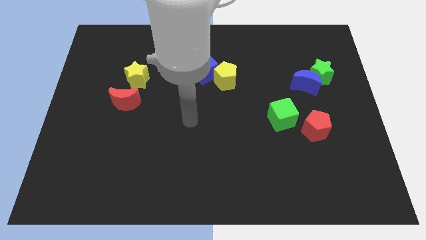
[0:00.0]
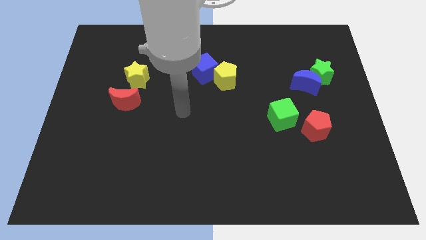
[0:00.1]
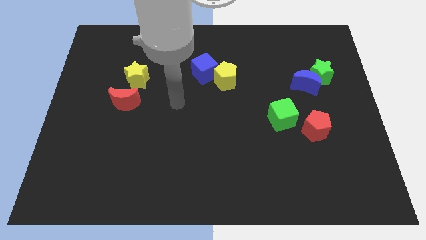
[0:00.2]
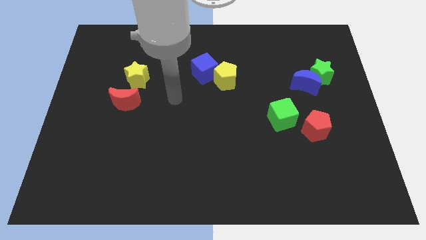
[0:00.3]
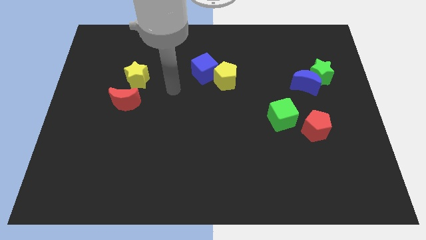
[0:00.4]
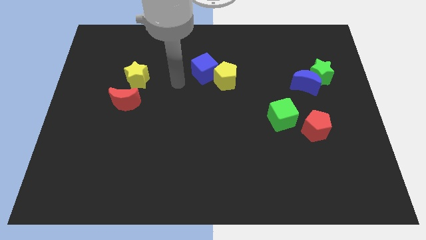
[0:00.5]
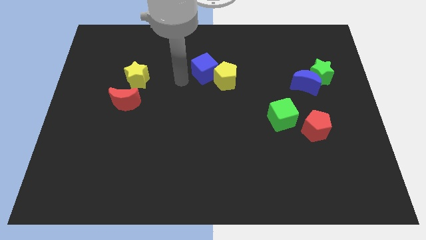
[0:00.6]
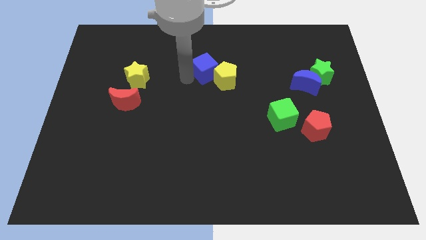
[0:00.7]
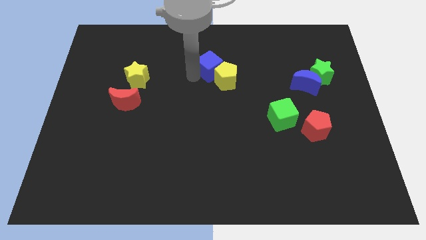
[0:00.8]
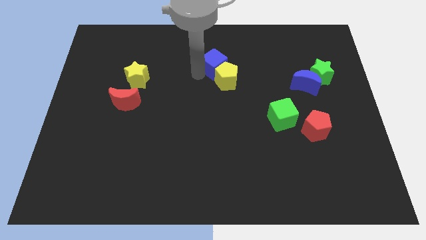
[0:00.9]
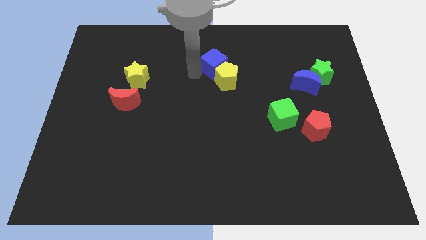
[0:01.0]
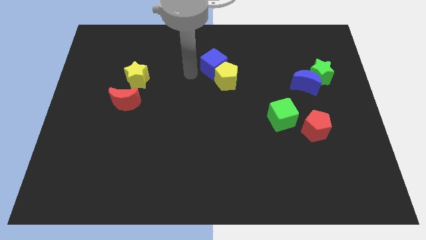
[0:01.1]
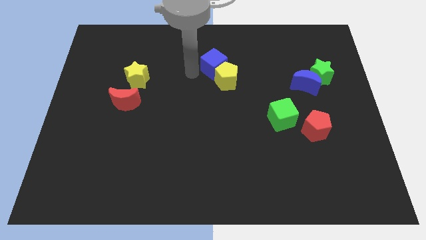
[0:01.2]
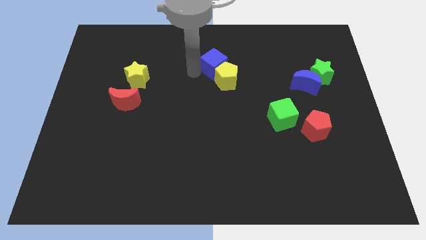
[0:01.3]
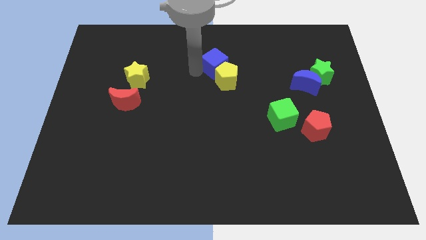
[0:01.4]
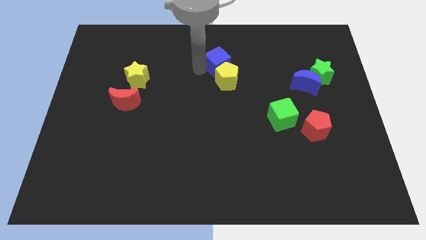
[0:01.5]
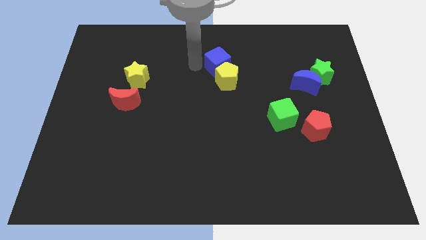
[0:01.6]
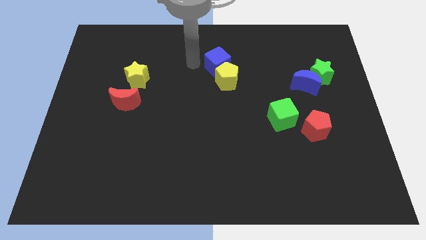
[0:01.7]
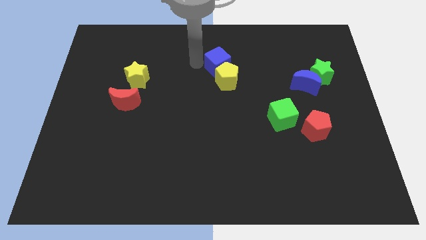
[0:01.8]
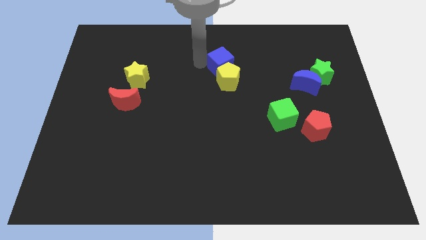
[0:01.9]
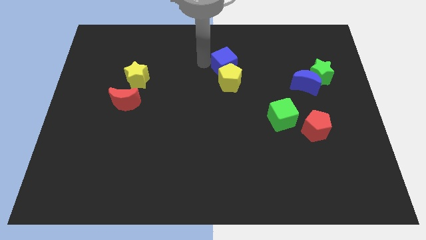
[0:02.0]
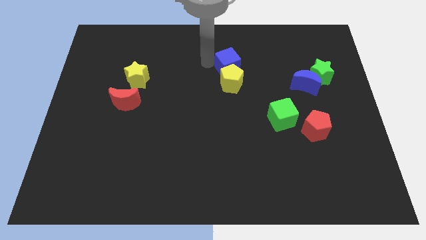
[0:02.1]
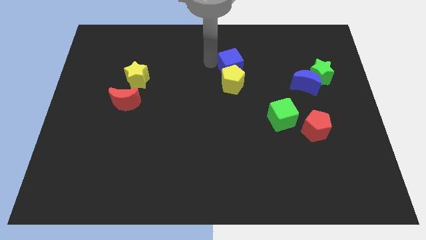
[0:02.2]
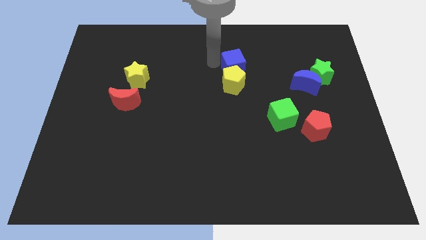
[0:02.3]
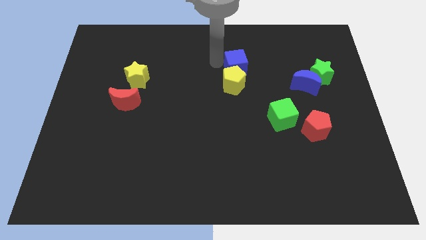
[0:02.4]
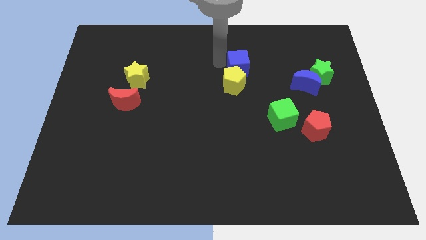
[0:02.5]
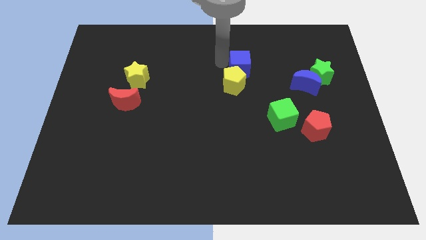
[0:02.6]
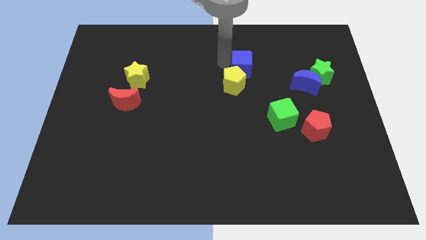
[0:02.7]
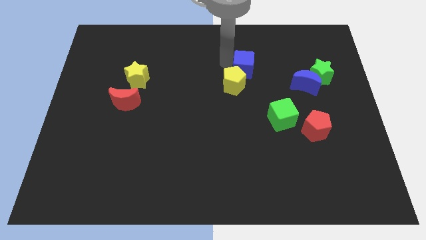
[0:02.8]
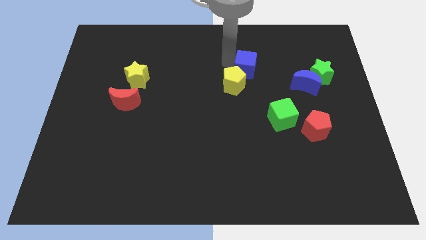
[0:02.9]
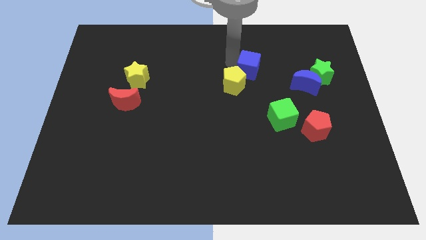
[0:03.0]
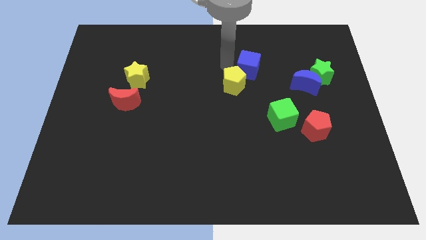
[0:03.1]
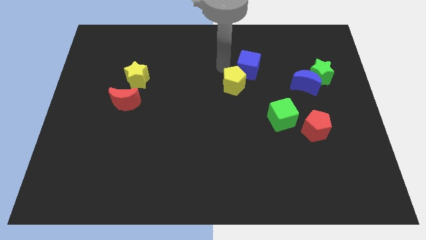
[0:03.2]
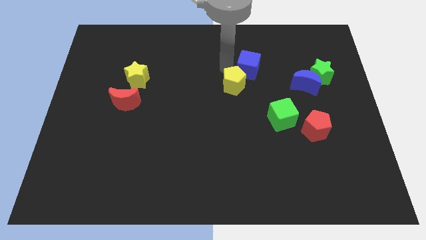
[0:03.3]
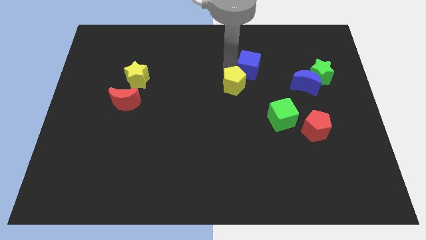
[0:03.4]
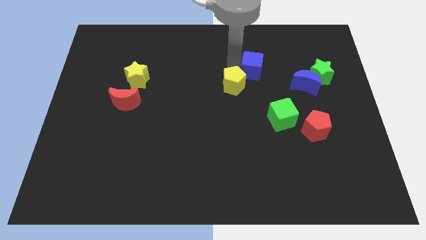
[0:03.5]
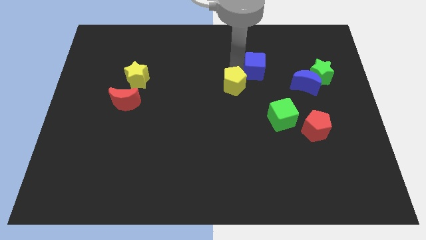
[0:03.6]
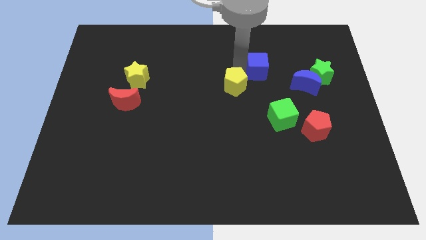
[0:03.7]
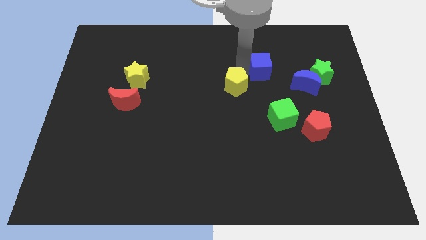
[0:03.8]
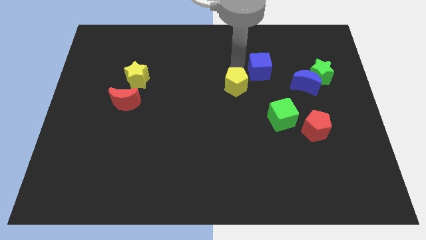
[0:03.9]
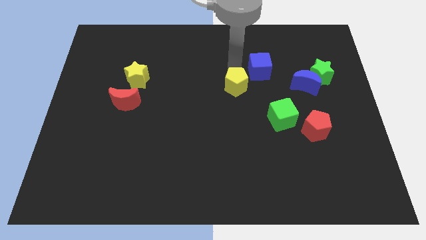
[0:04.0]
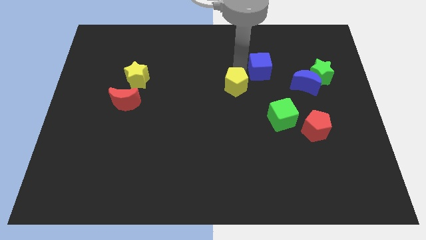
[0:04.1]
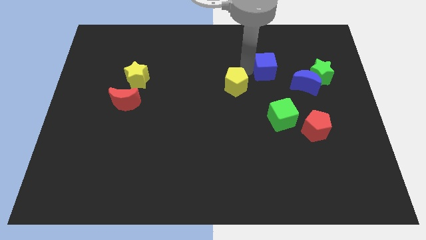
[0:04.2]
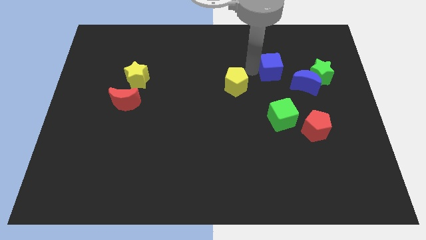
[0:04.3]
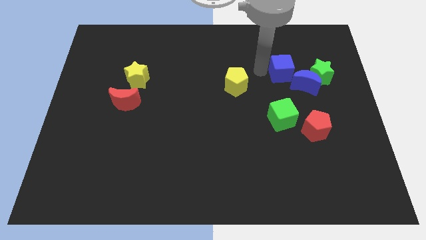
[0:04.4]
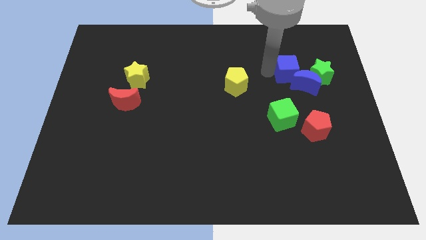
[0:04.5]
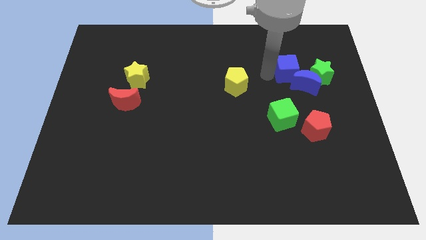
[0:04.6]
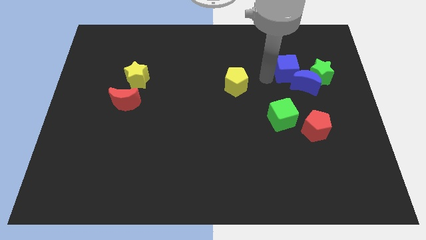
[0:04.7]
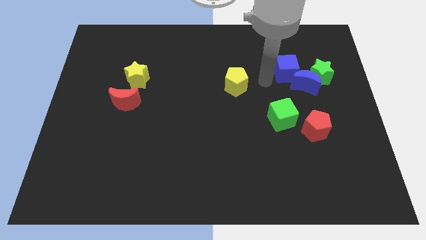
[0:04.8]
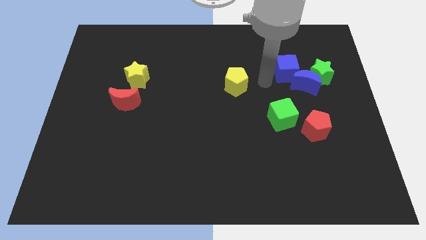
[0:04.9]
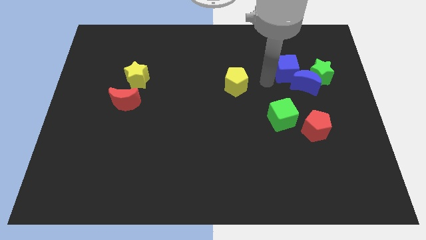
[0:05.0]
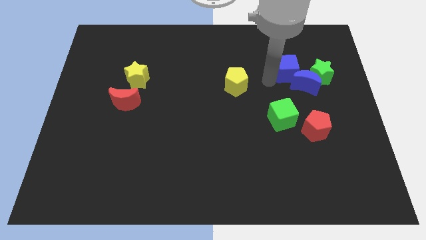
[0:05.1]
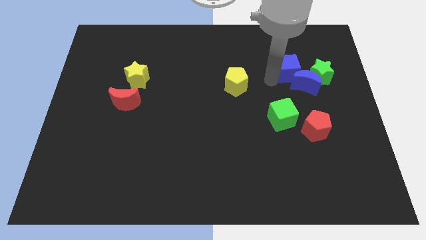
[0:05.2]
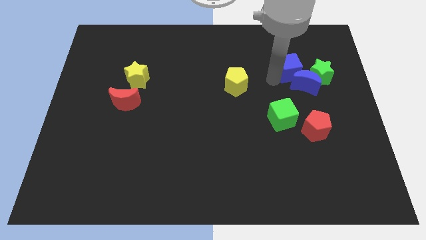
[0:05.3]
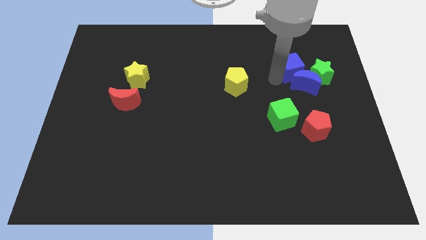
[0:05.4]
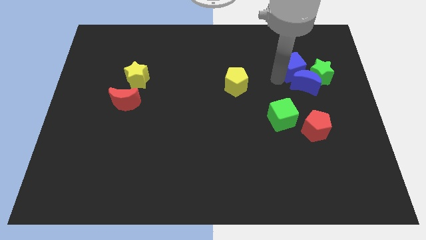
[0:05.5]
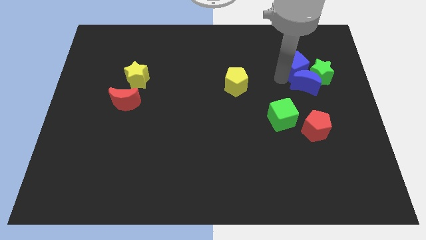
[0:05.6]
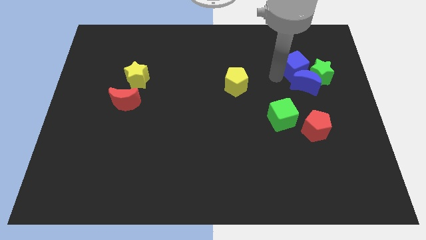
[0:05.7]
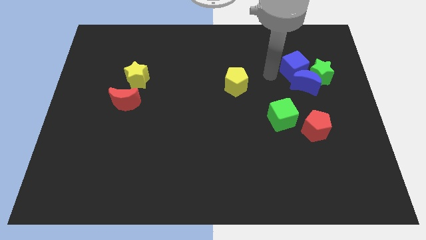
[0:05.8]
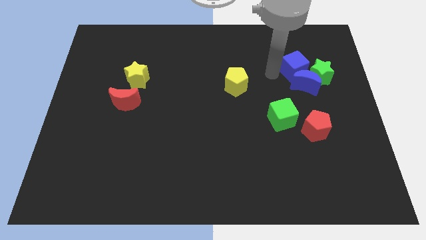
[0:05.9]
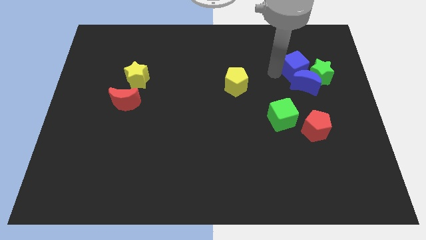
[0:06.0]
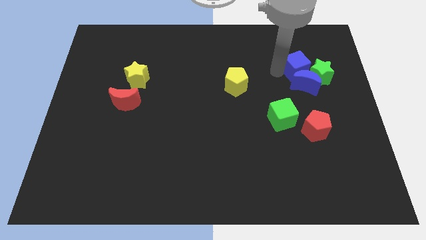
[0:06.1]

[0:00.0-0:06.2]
move the blue cube to the top right of the blue moon

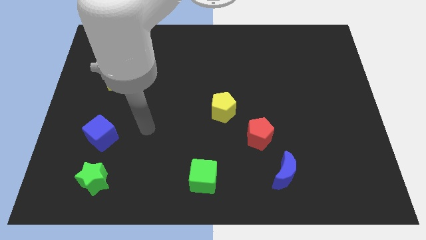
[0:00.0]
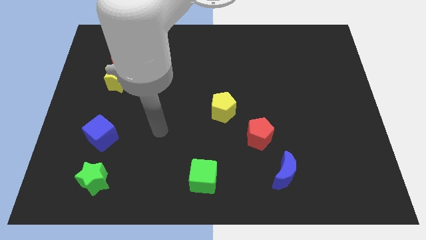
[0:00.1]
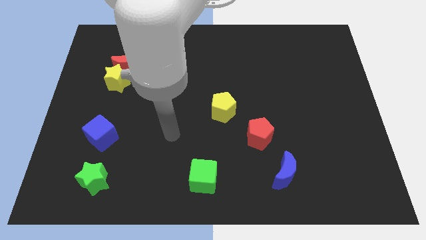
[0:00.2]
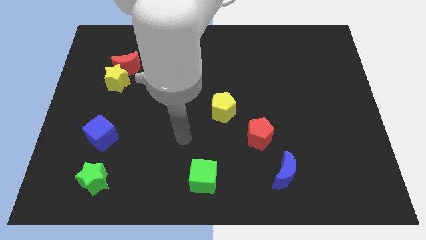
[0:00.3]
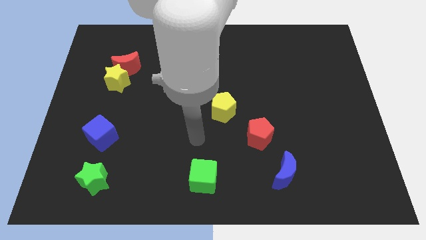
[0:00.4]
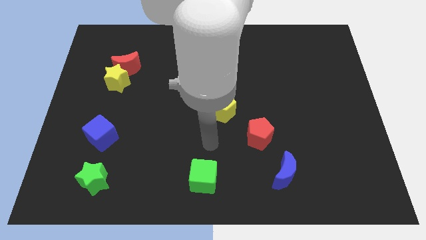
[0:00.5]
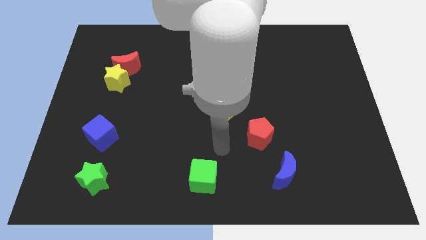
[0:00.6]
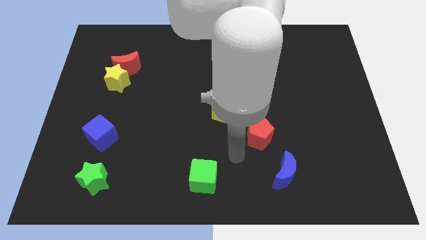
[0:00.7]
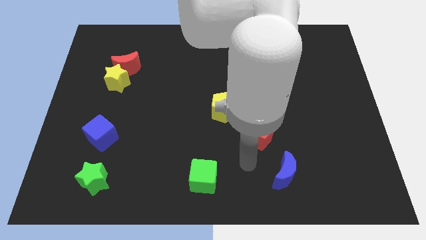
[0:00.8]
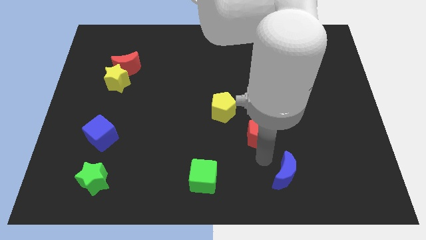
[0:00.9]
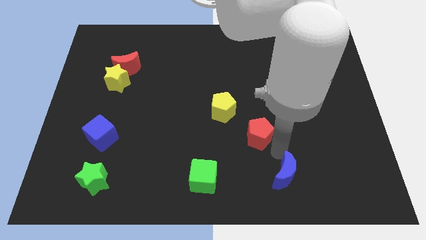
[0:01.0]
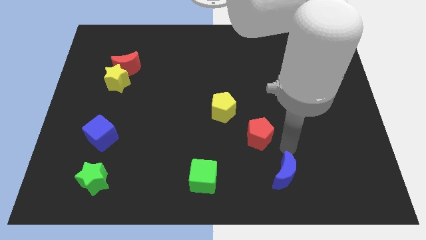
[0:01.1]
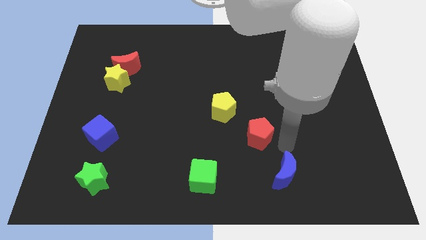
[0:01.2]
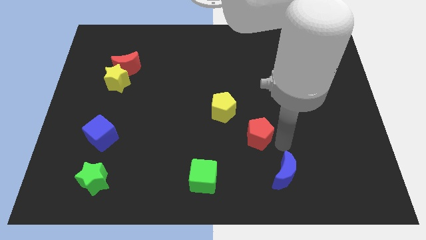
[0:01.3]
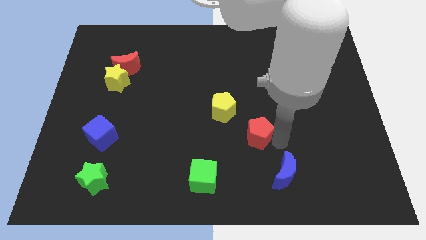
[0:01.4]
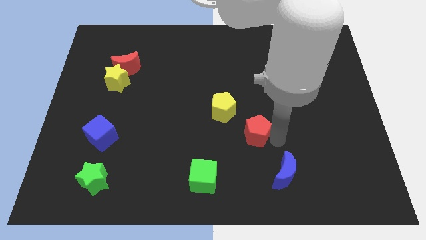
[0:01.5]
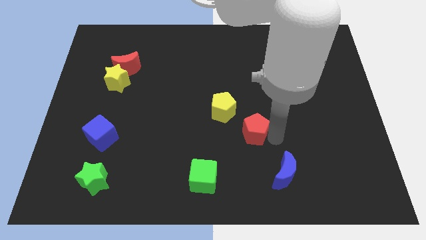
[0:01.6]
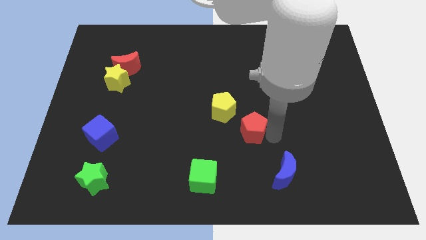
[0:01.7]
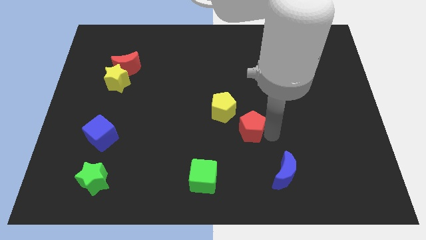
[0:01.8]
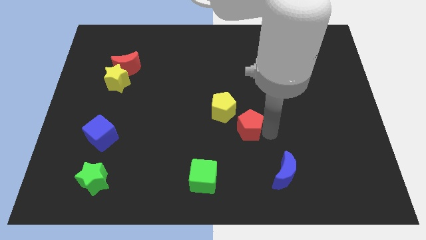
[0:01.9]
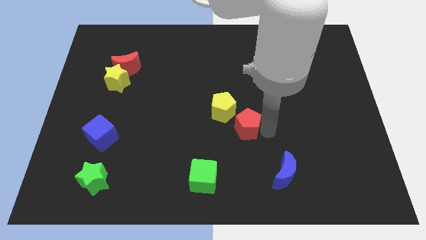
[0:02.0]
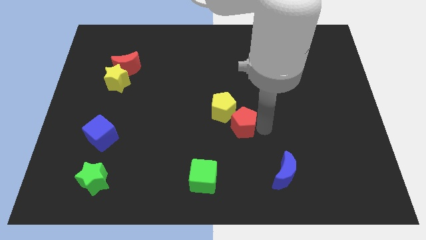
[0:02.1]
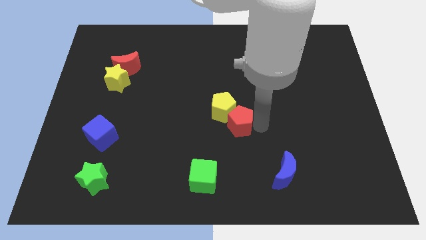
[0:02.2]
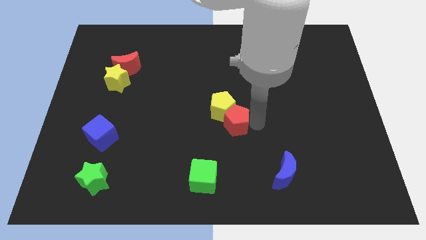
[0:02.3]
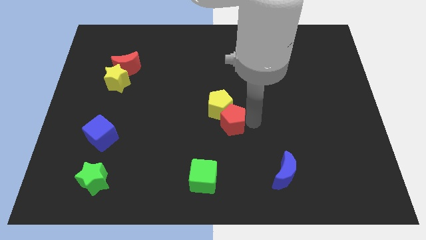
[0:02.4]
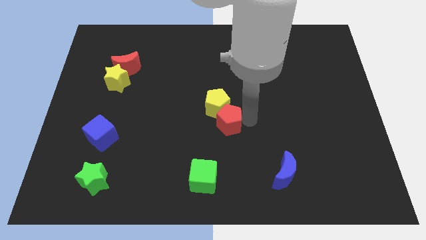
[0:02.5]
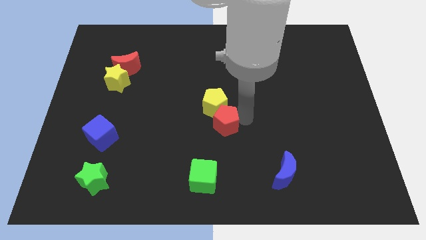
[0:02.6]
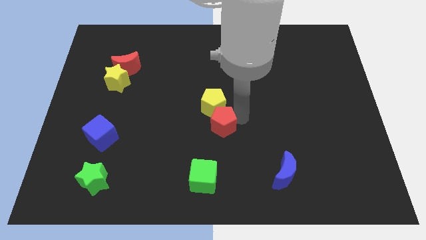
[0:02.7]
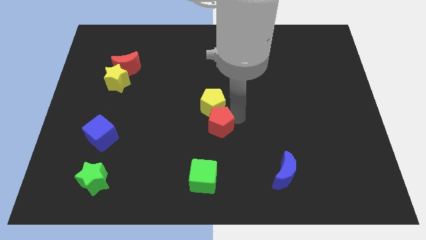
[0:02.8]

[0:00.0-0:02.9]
push the red pentagon to the bottom left of the yellow pentagon
